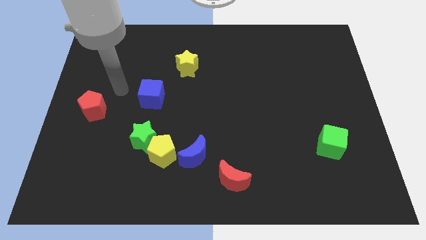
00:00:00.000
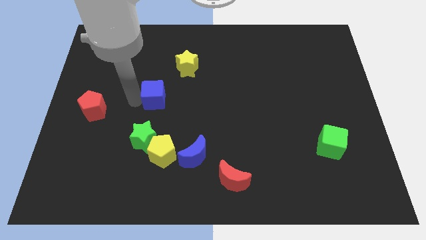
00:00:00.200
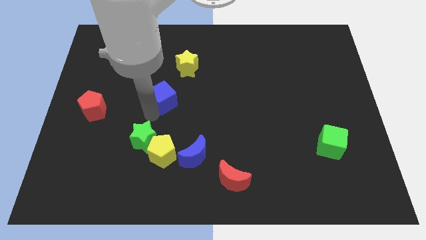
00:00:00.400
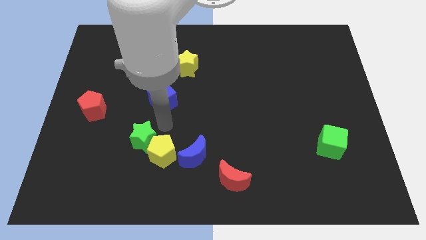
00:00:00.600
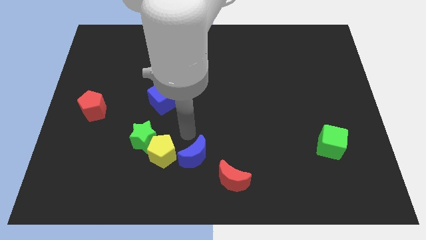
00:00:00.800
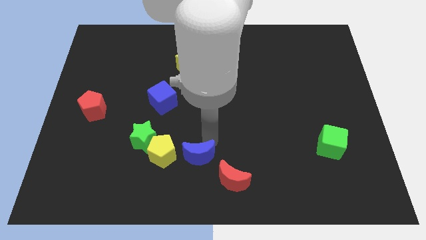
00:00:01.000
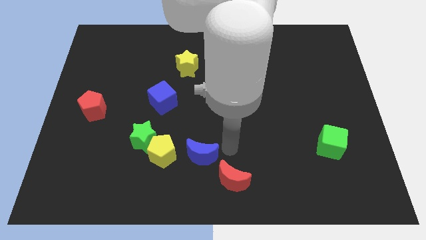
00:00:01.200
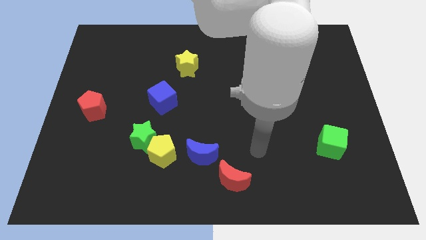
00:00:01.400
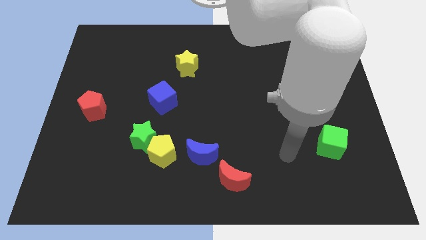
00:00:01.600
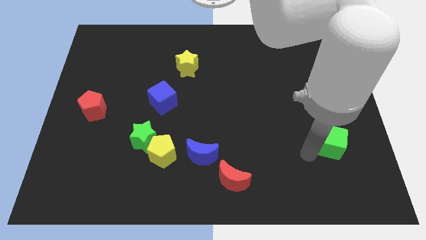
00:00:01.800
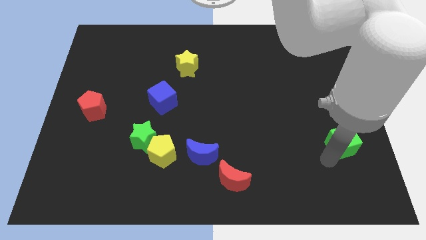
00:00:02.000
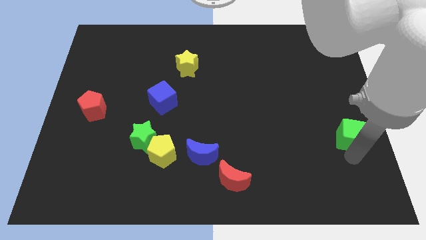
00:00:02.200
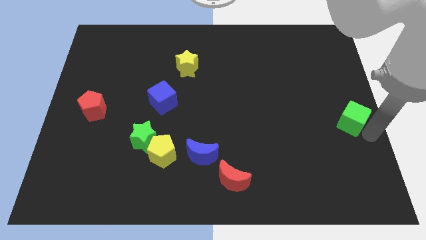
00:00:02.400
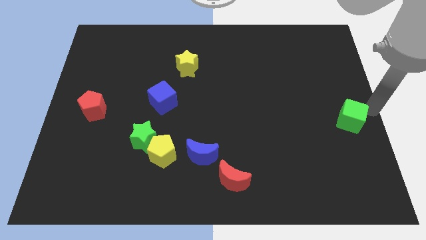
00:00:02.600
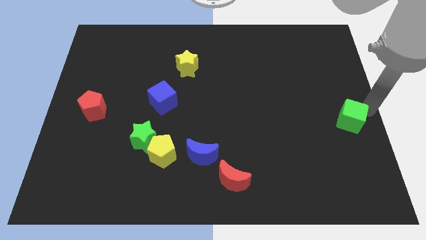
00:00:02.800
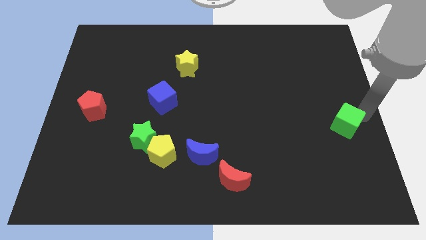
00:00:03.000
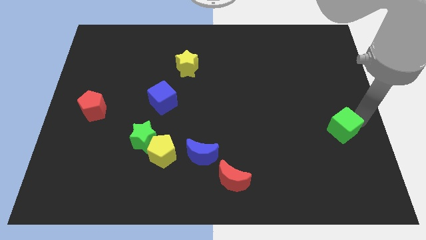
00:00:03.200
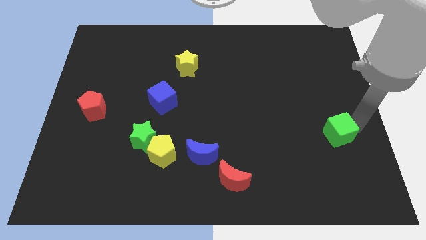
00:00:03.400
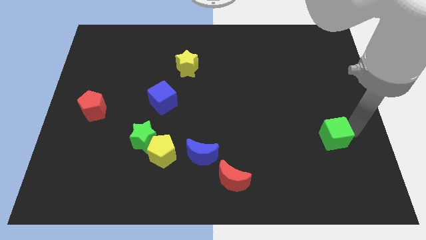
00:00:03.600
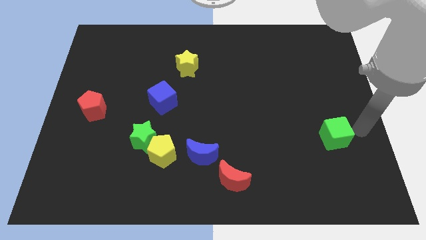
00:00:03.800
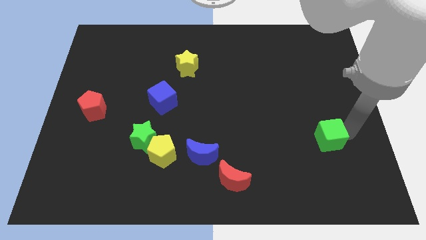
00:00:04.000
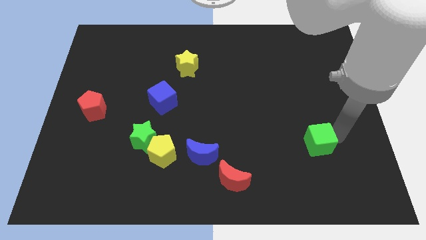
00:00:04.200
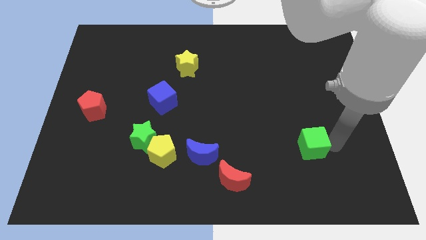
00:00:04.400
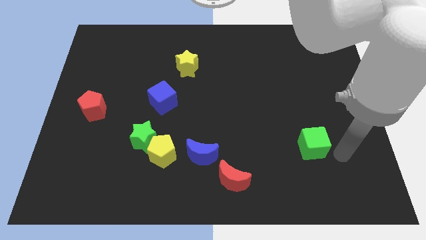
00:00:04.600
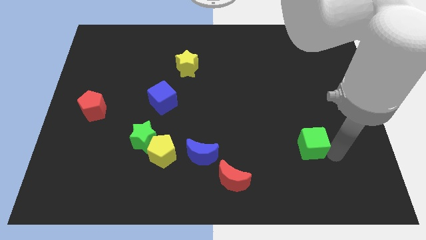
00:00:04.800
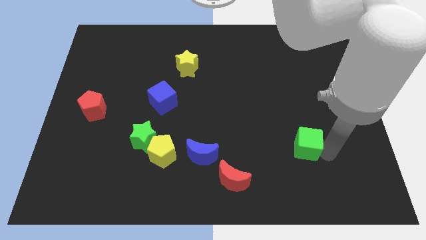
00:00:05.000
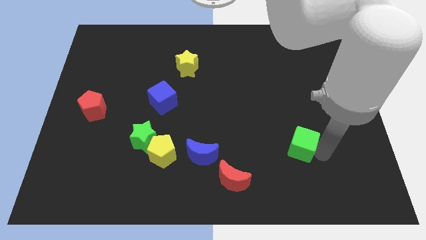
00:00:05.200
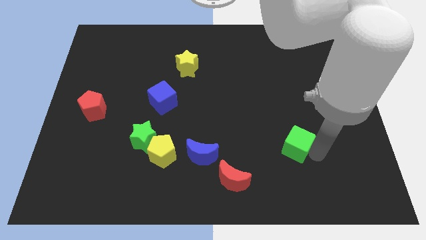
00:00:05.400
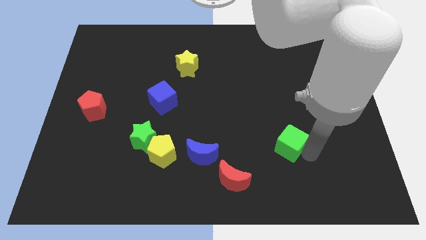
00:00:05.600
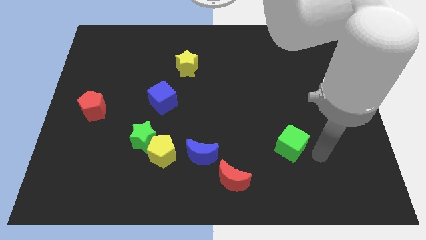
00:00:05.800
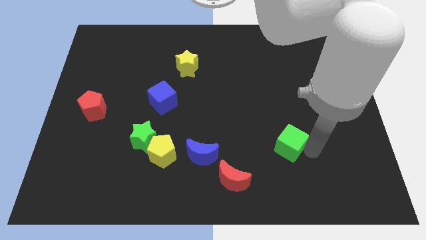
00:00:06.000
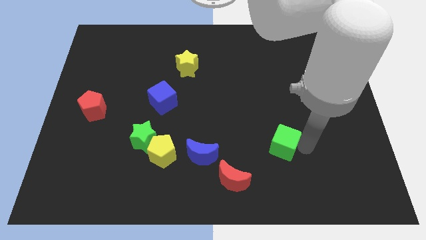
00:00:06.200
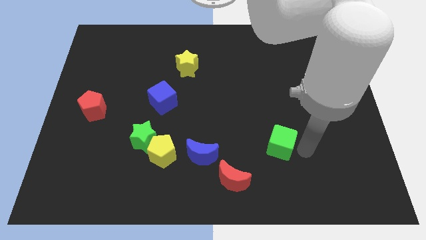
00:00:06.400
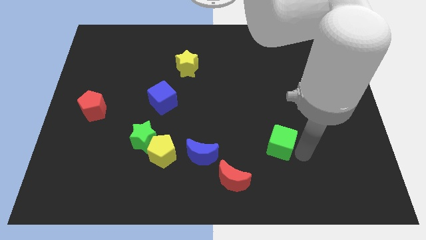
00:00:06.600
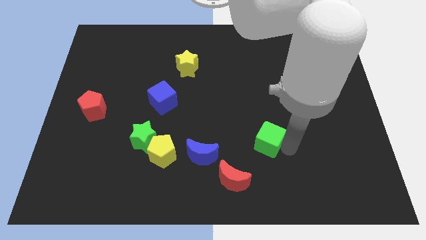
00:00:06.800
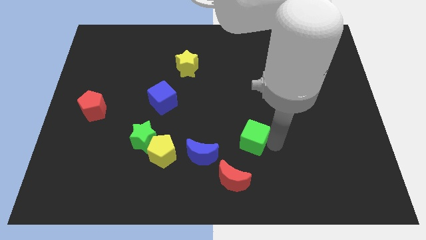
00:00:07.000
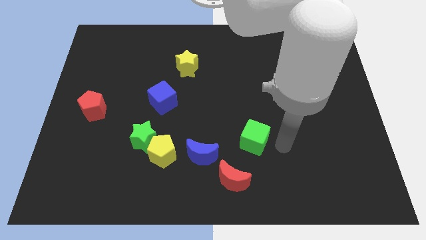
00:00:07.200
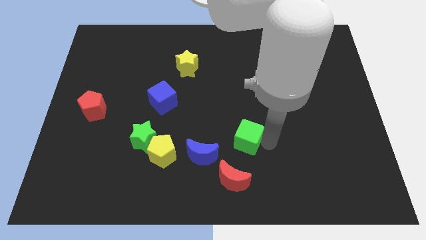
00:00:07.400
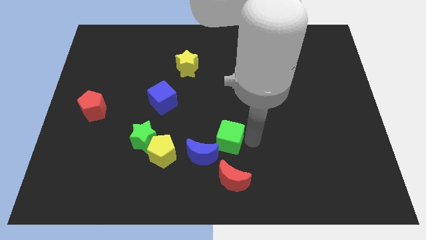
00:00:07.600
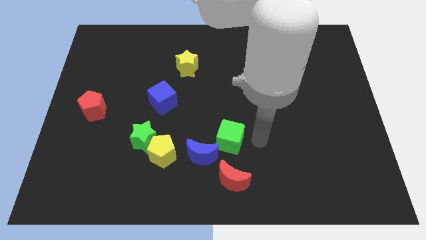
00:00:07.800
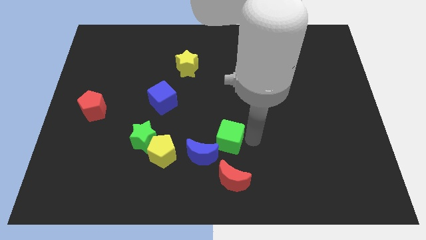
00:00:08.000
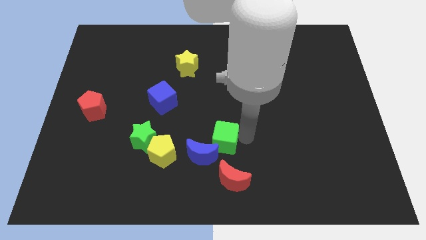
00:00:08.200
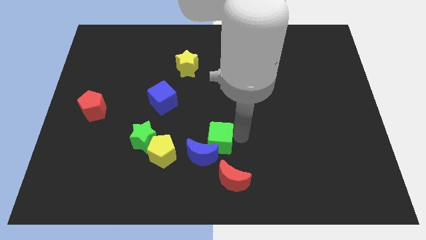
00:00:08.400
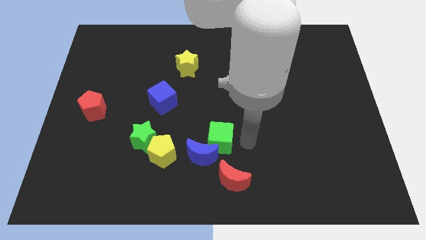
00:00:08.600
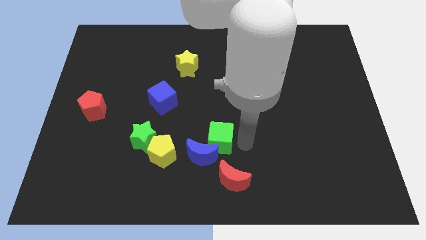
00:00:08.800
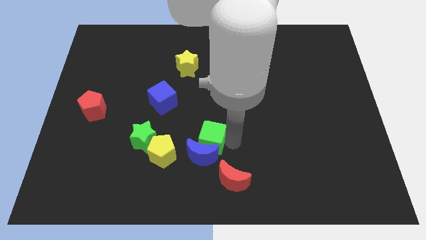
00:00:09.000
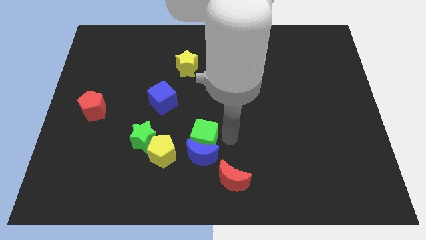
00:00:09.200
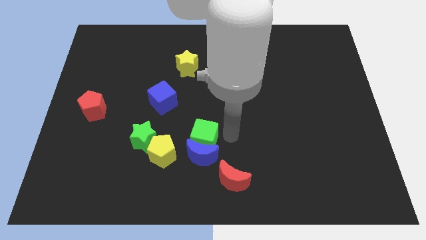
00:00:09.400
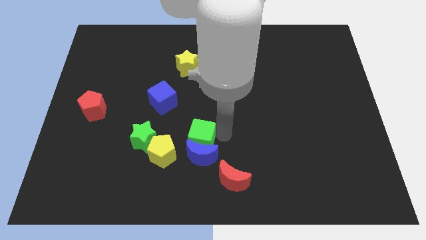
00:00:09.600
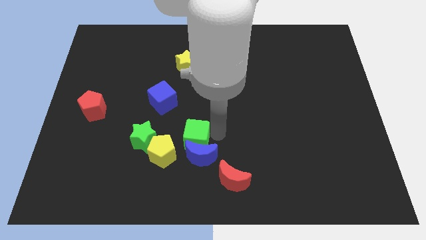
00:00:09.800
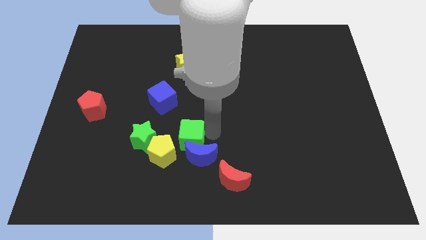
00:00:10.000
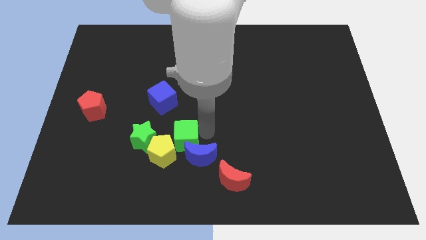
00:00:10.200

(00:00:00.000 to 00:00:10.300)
push the green cube to the yellow pentagon

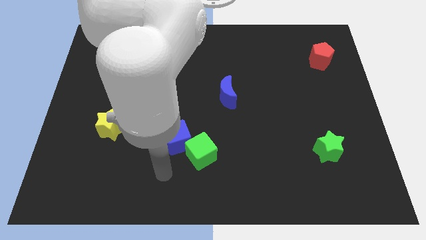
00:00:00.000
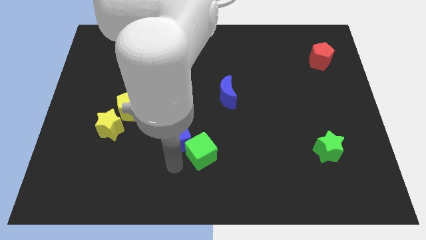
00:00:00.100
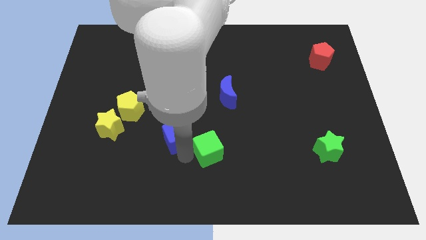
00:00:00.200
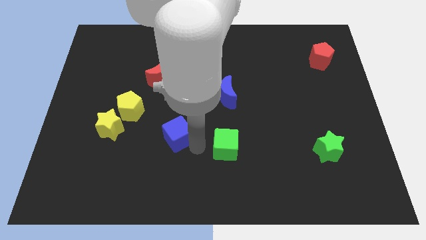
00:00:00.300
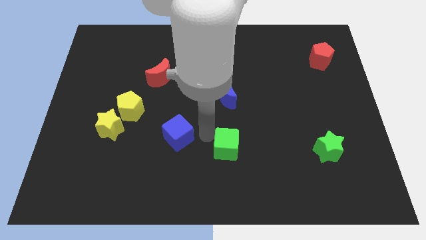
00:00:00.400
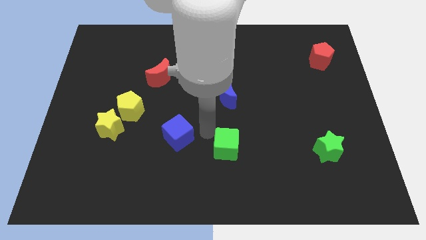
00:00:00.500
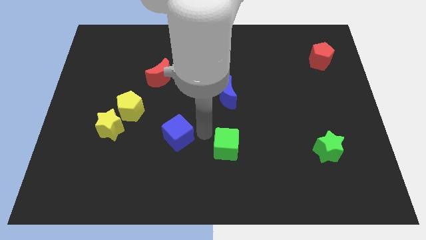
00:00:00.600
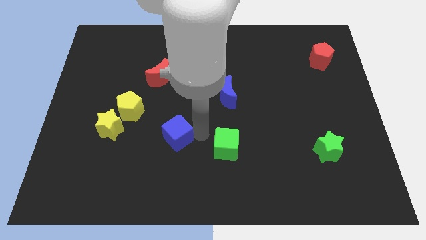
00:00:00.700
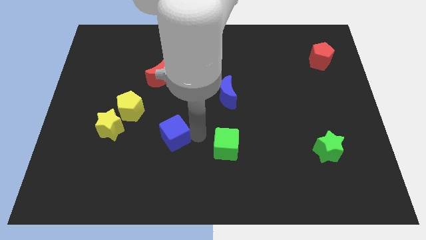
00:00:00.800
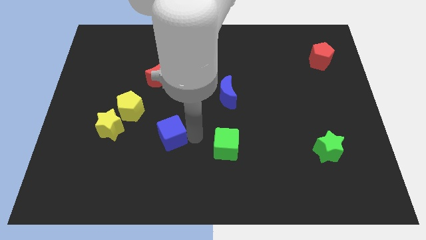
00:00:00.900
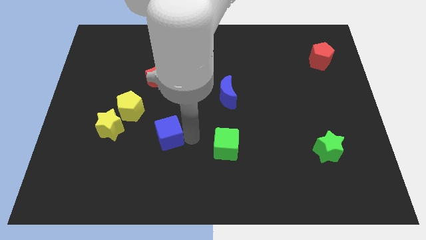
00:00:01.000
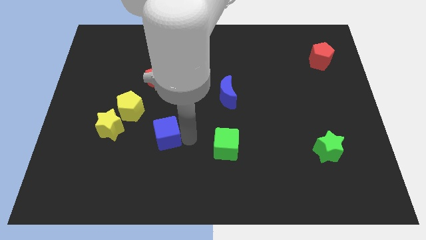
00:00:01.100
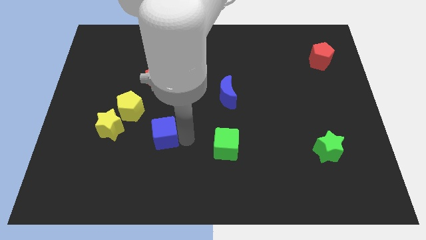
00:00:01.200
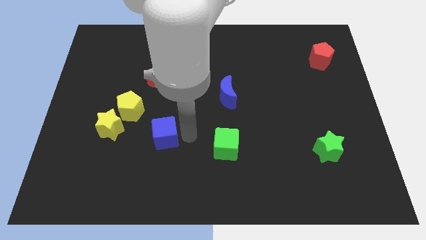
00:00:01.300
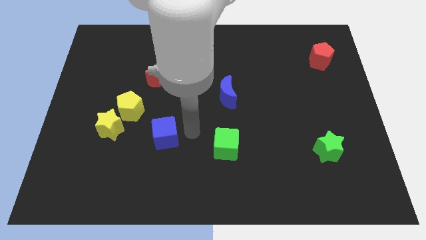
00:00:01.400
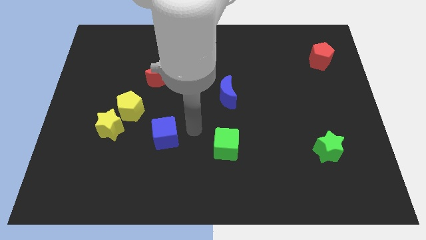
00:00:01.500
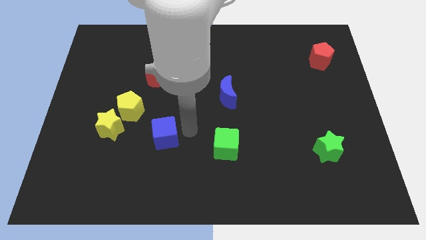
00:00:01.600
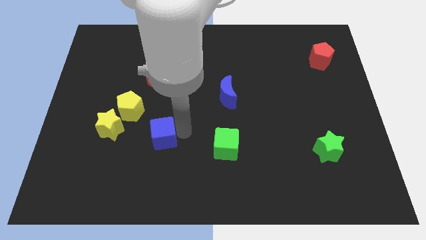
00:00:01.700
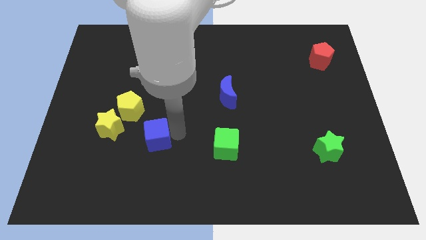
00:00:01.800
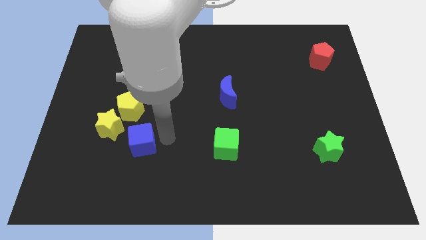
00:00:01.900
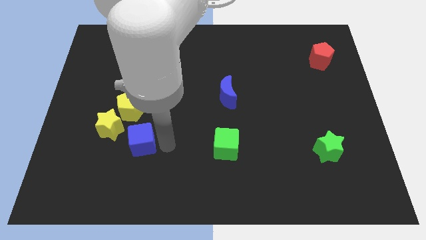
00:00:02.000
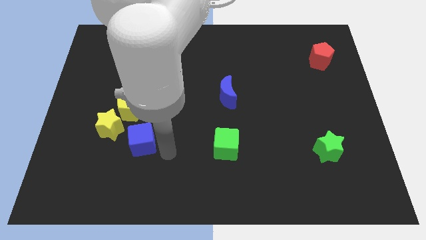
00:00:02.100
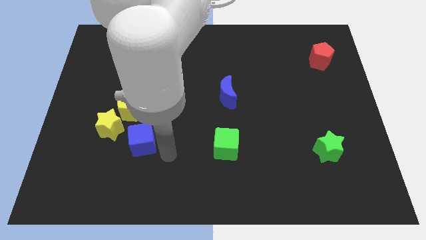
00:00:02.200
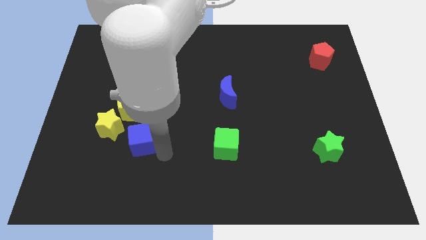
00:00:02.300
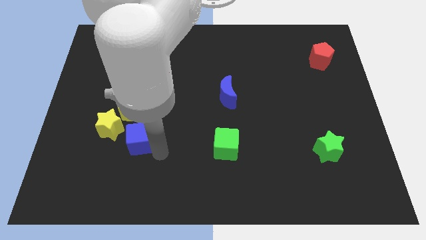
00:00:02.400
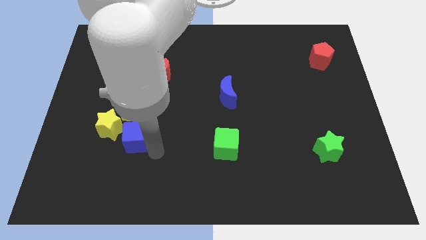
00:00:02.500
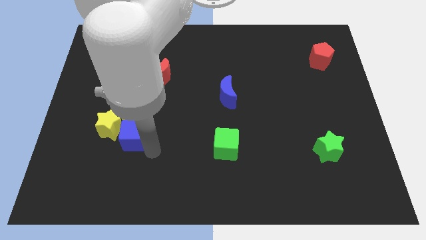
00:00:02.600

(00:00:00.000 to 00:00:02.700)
slide the blue cube next to the yellow star

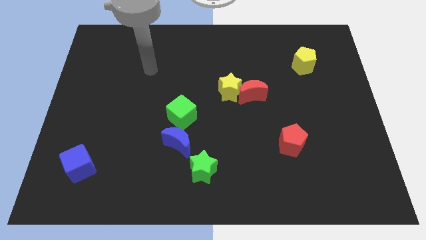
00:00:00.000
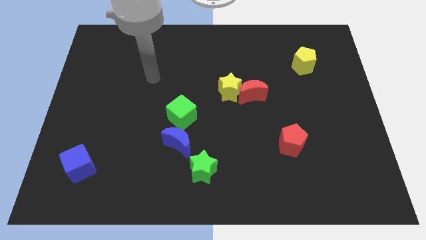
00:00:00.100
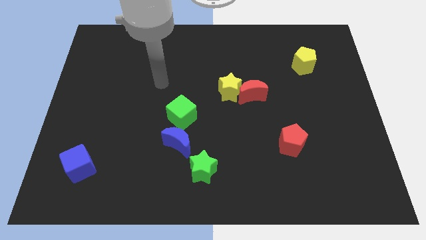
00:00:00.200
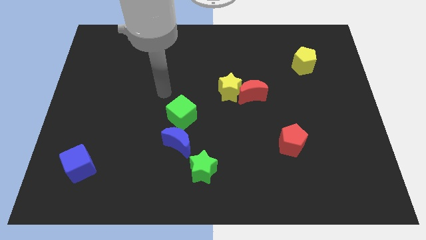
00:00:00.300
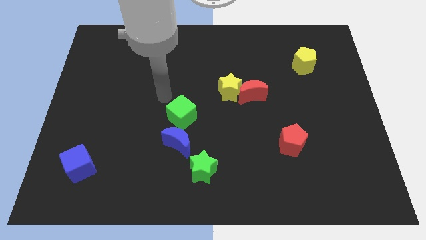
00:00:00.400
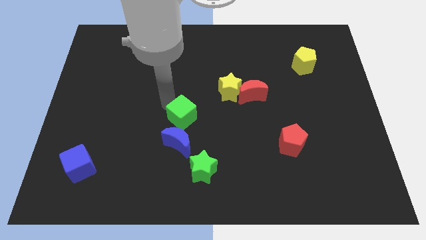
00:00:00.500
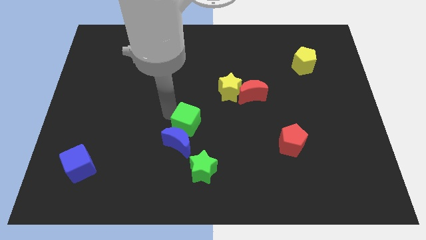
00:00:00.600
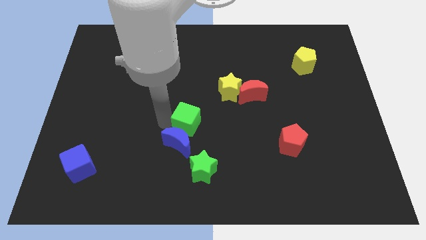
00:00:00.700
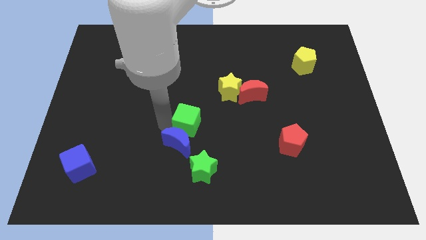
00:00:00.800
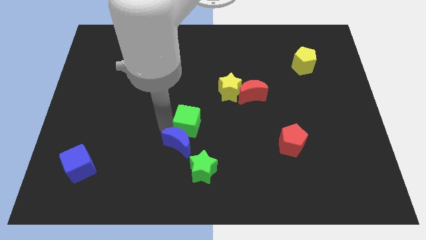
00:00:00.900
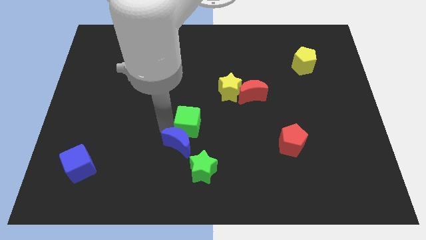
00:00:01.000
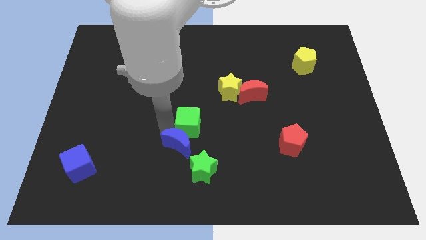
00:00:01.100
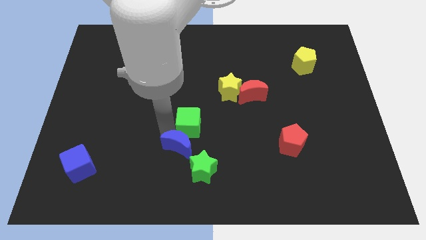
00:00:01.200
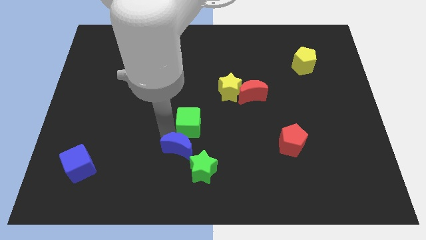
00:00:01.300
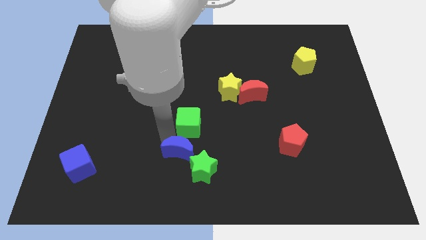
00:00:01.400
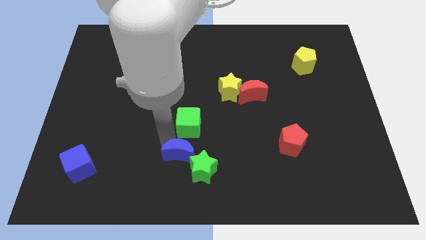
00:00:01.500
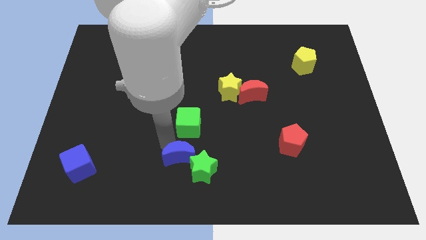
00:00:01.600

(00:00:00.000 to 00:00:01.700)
put the blue moon towards the green star
